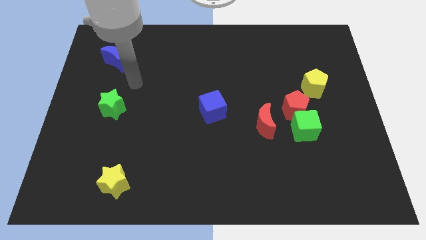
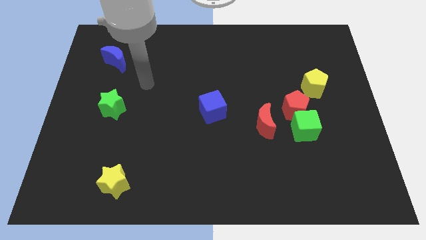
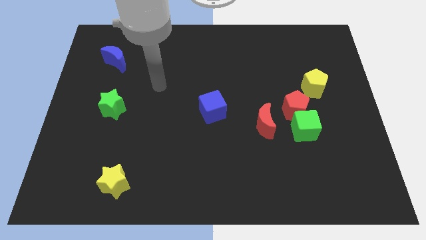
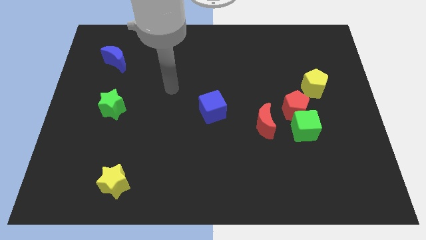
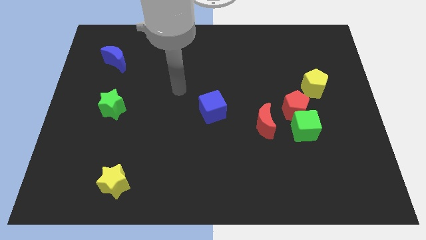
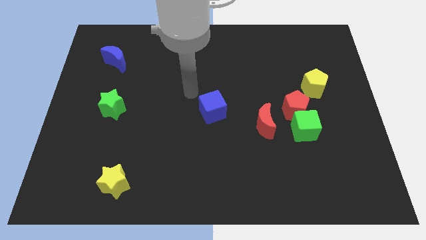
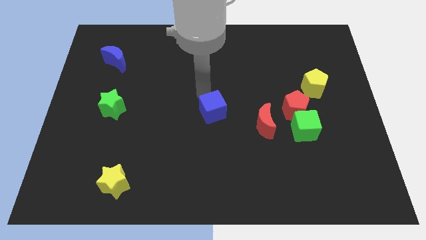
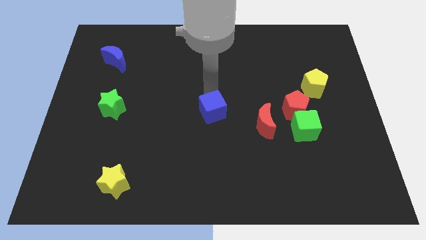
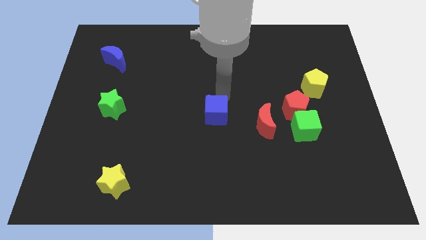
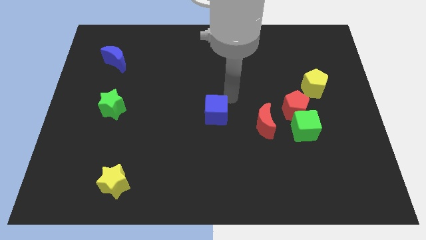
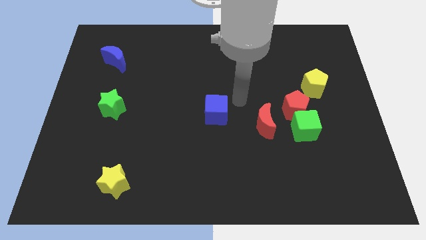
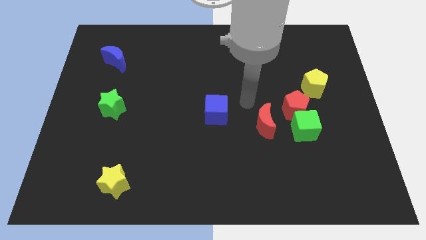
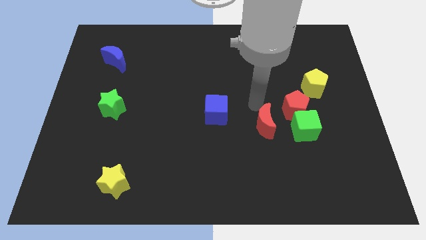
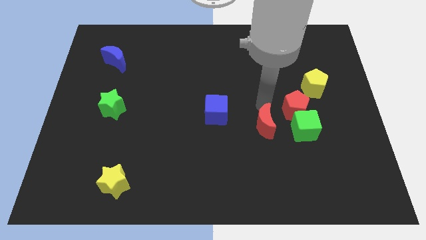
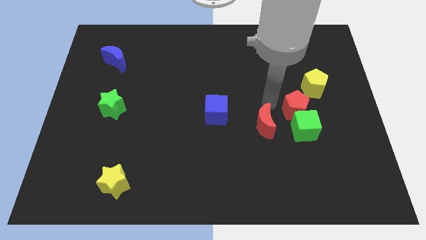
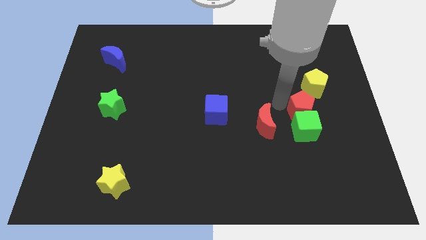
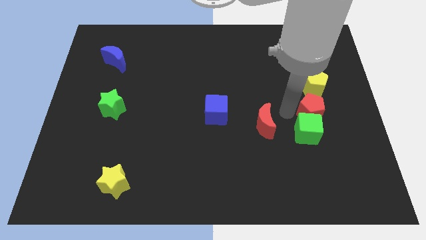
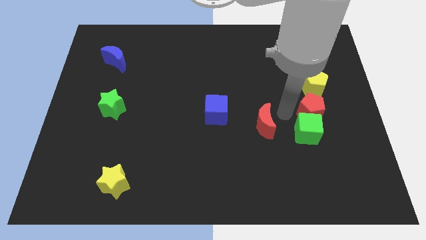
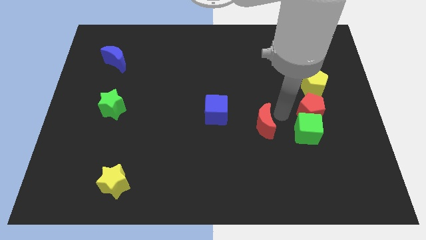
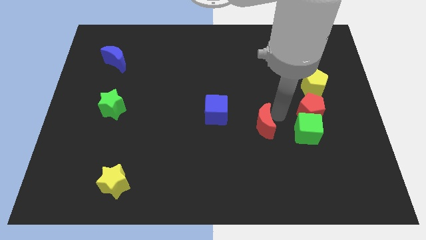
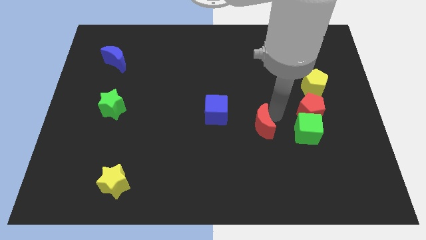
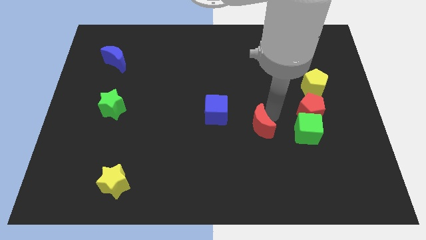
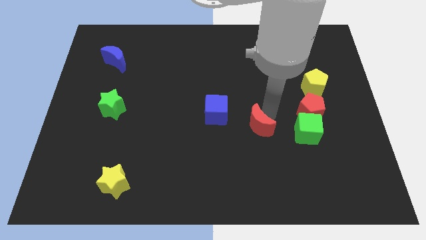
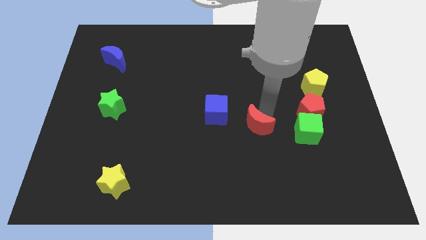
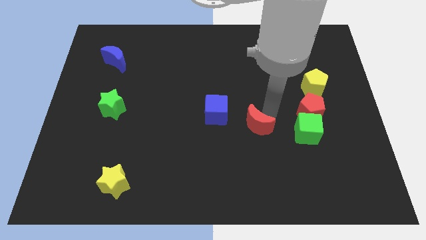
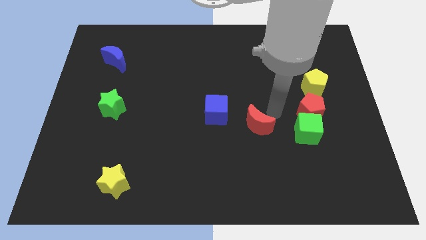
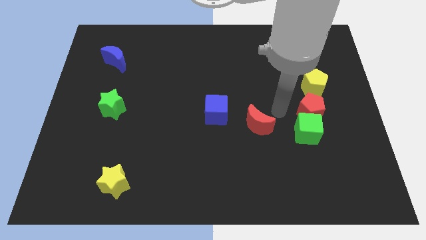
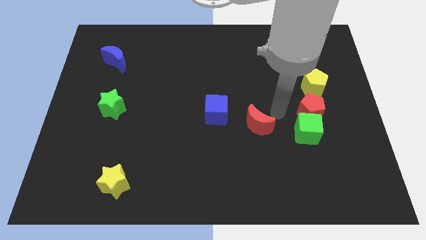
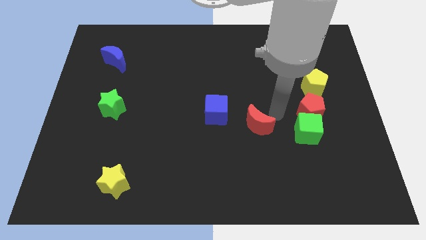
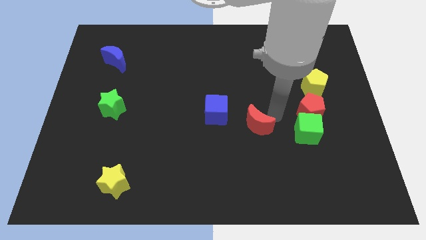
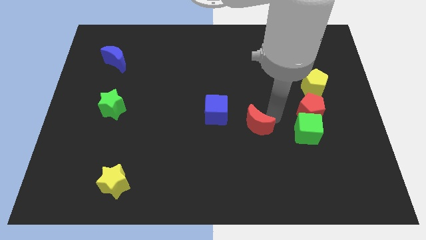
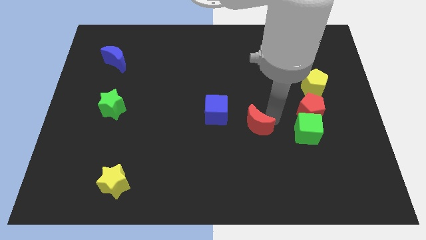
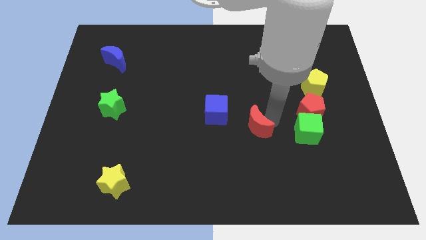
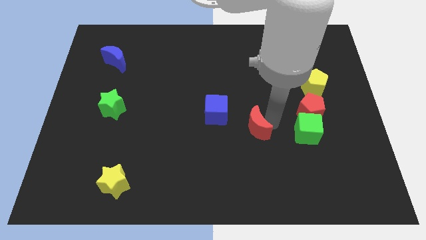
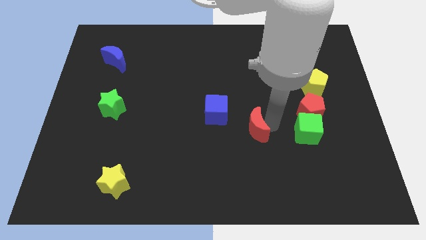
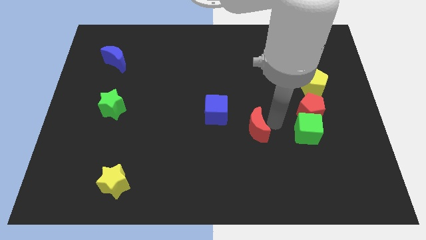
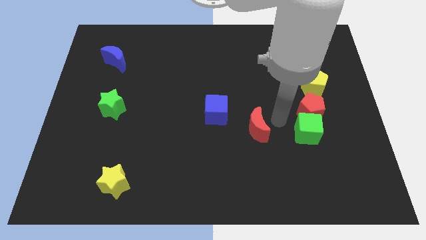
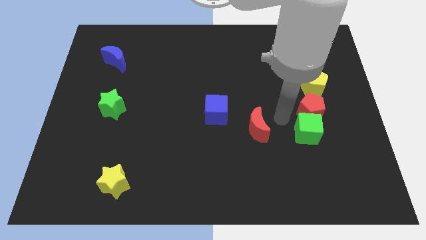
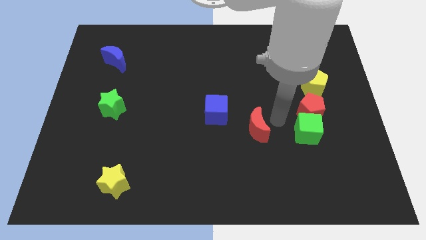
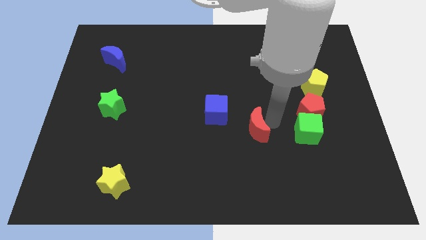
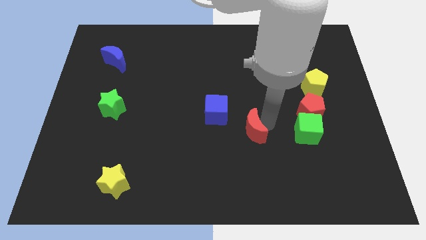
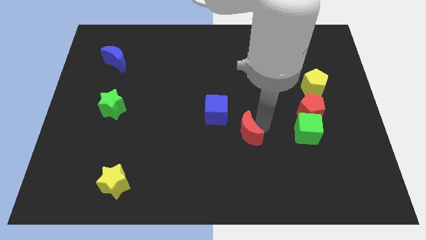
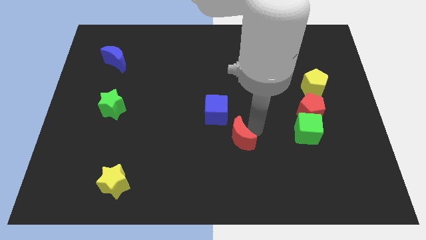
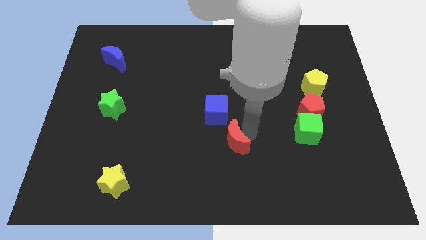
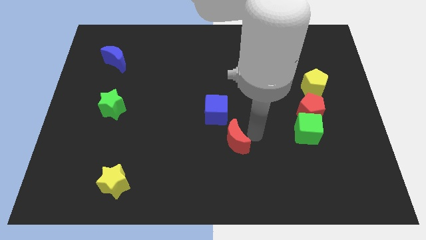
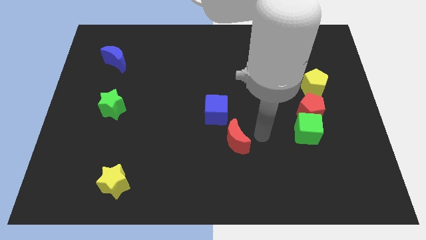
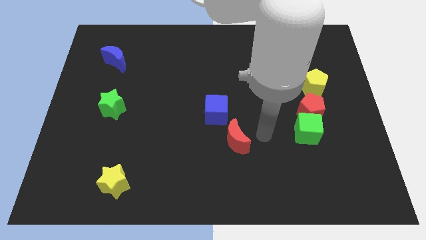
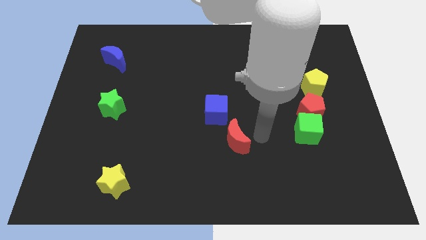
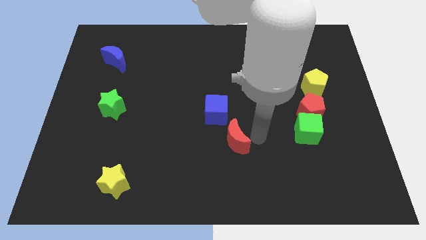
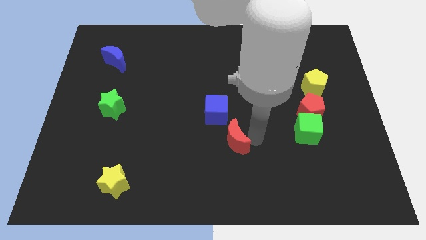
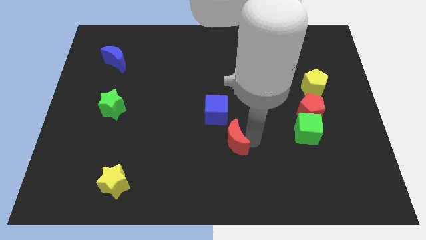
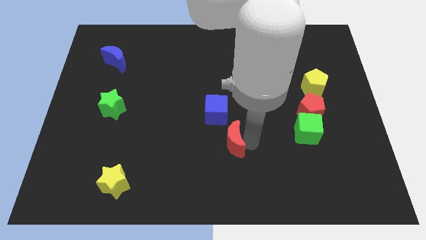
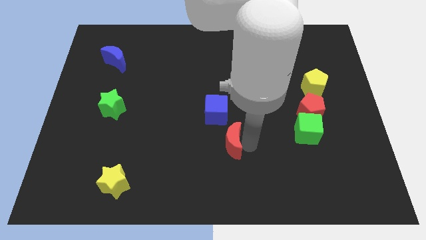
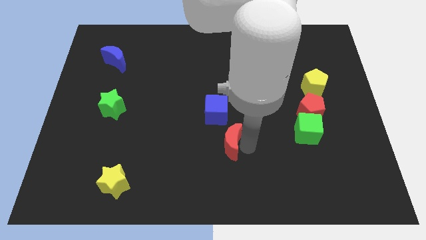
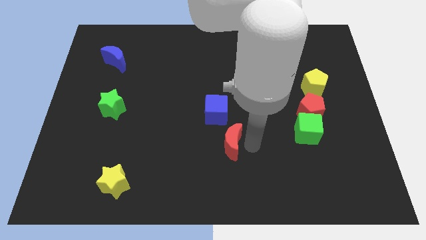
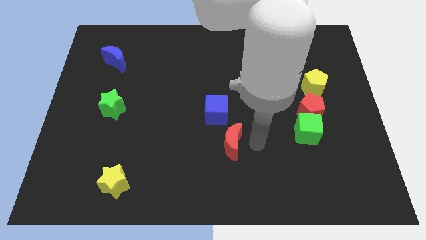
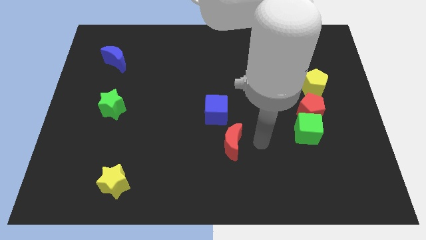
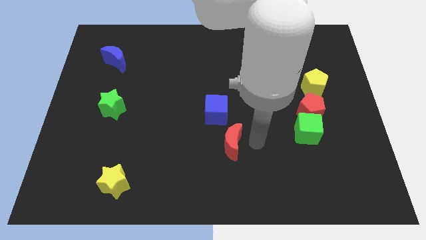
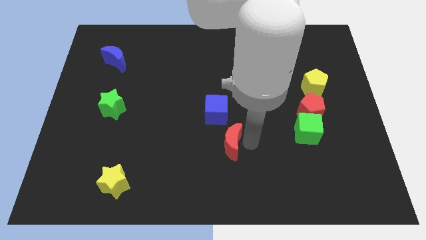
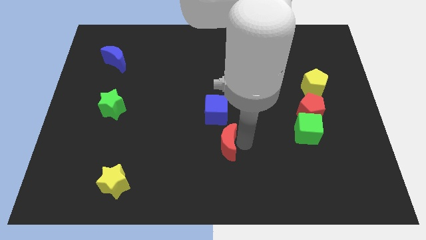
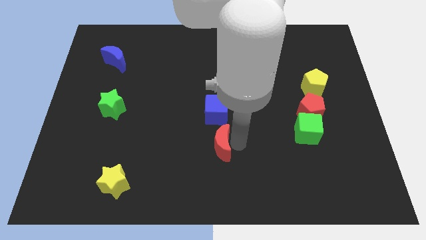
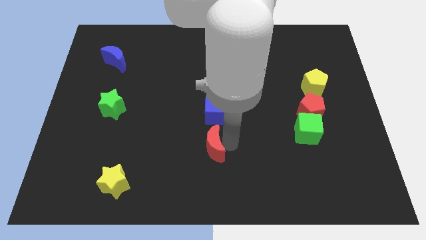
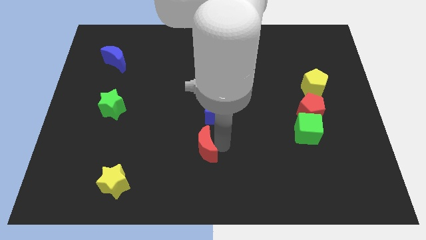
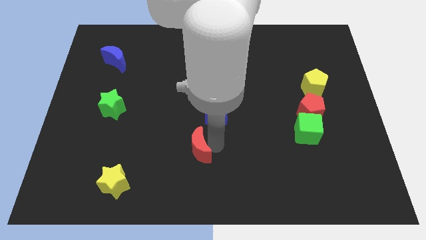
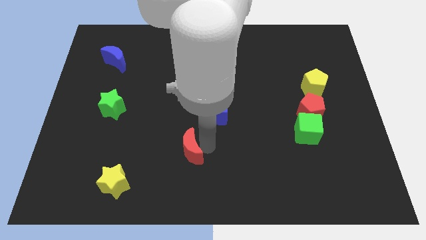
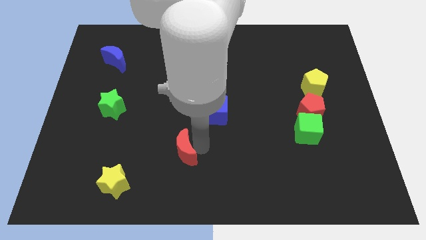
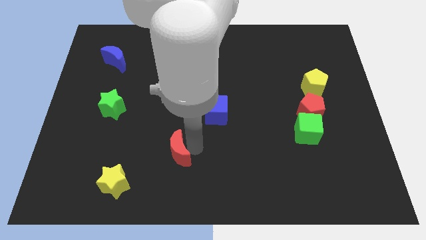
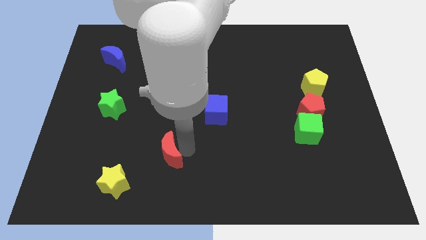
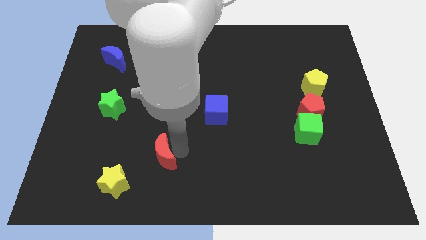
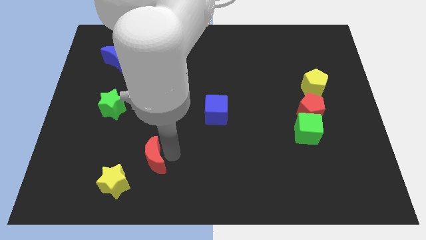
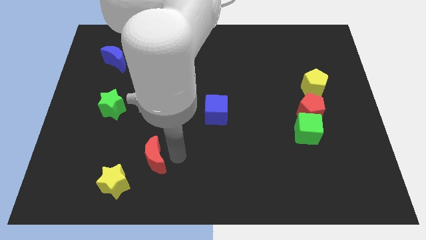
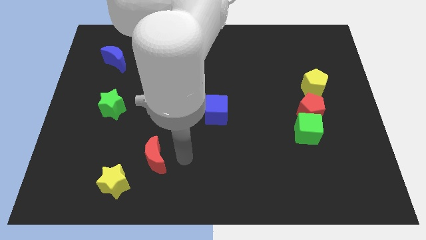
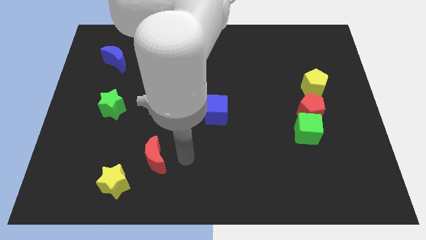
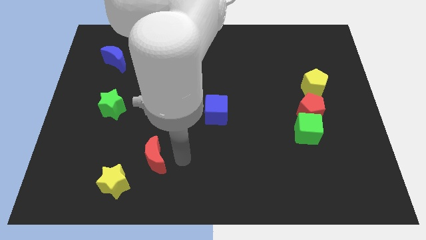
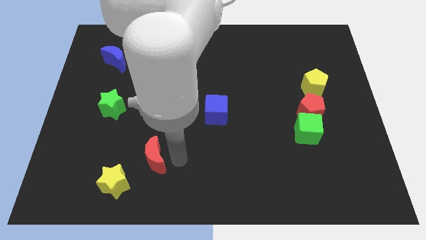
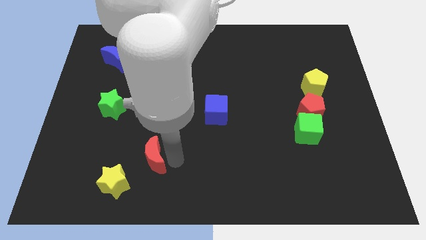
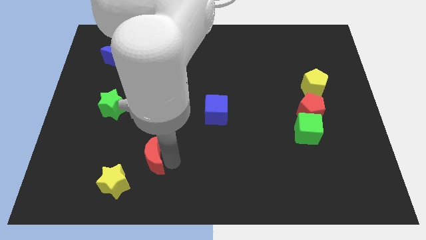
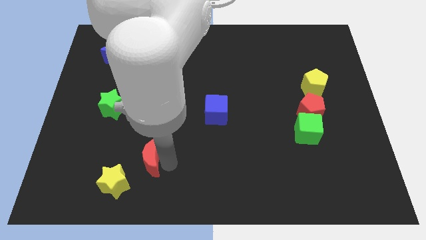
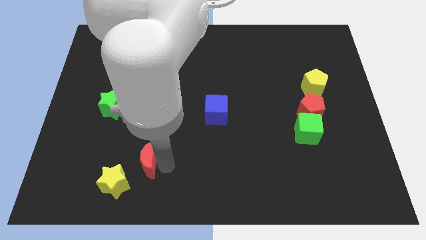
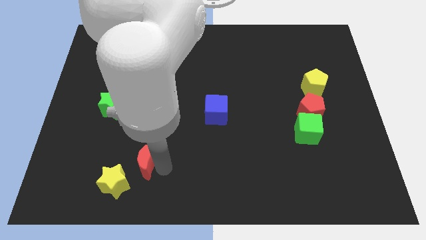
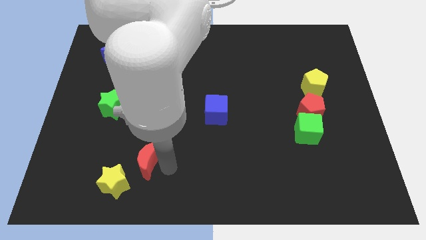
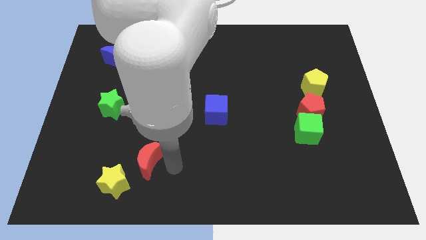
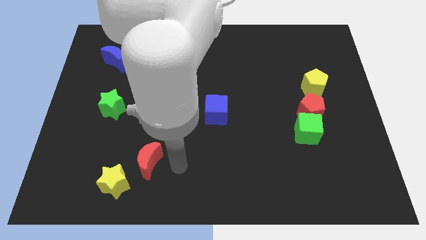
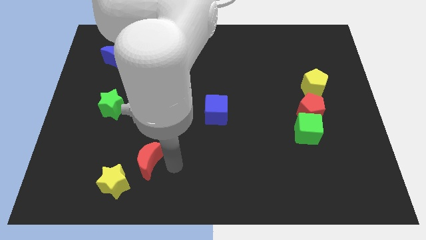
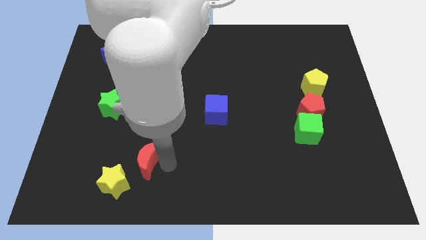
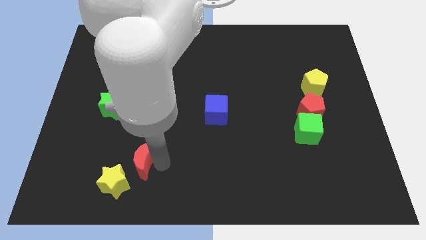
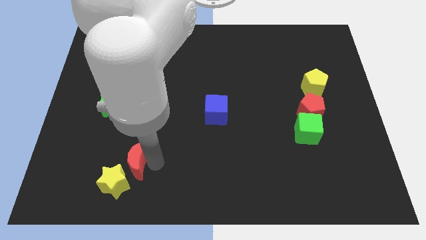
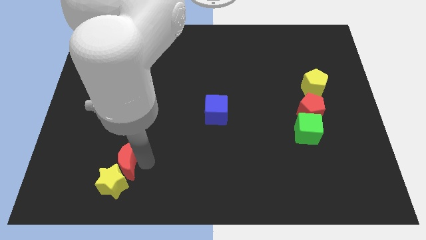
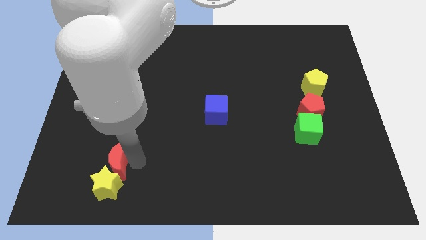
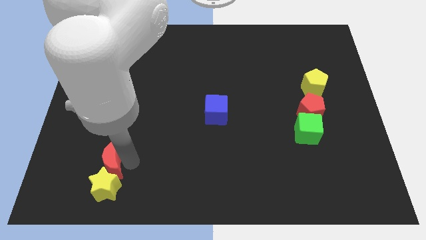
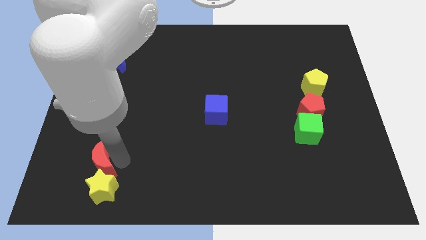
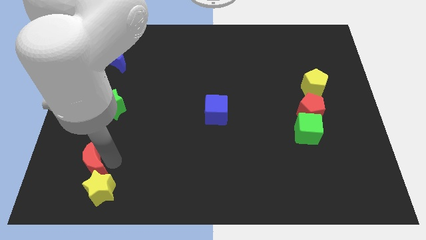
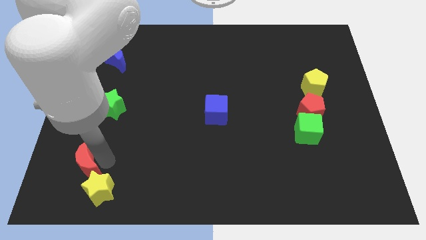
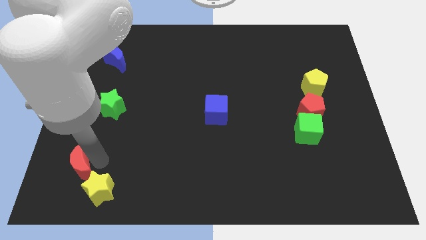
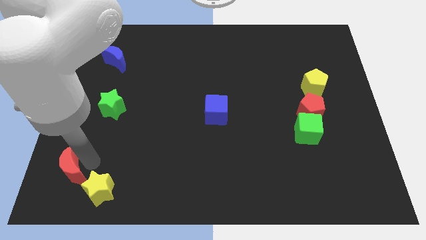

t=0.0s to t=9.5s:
slide the red moon to the lower left corner
